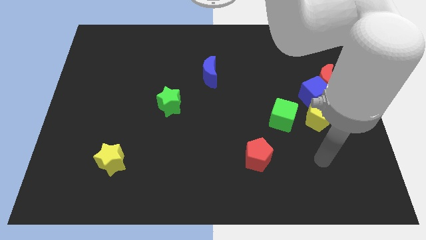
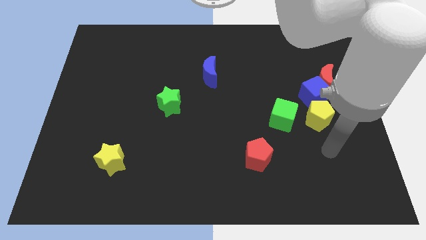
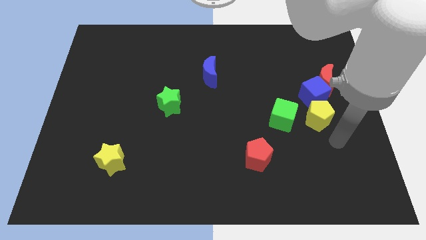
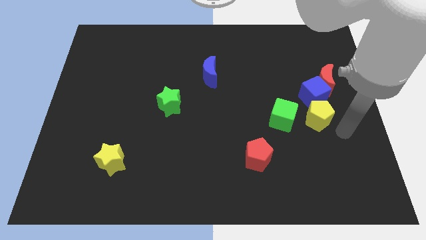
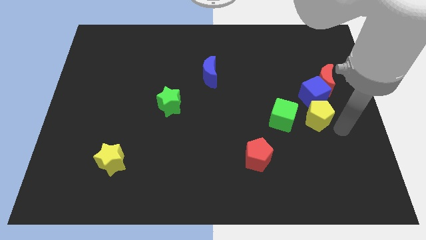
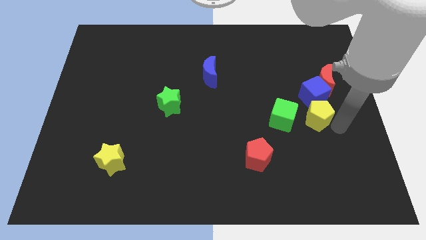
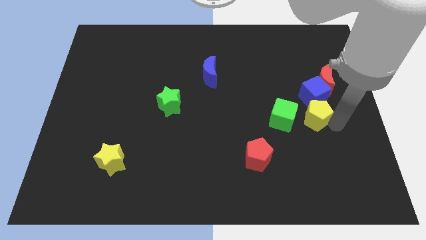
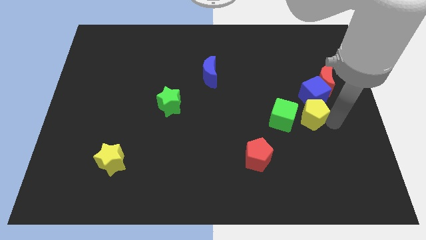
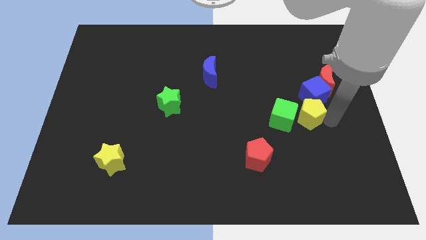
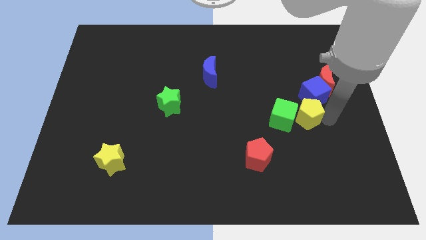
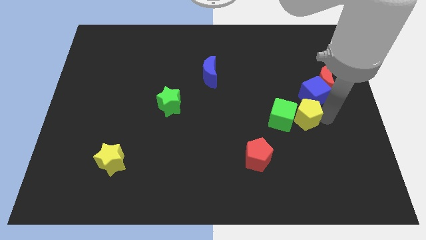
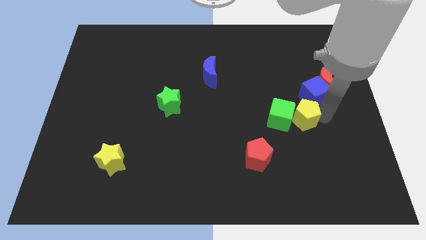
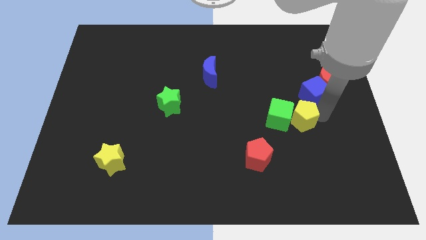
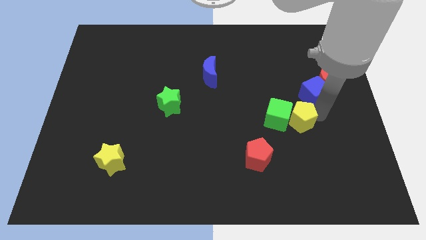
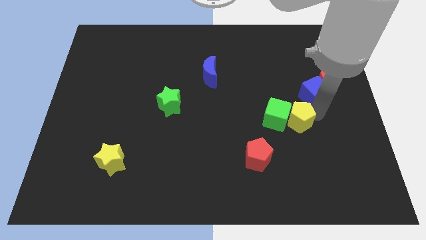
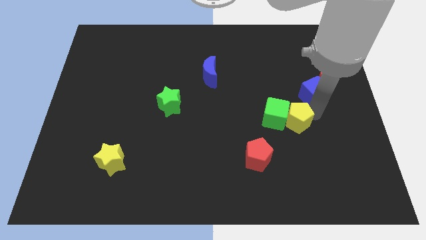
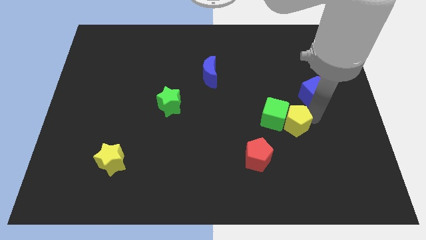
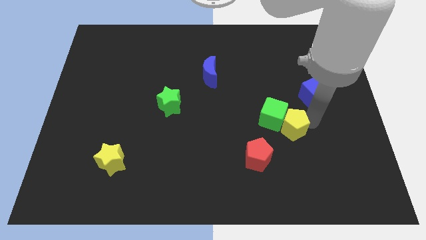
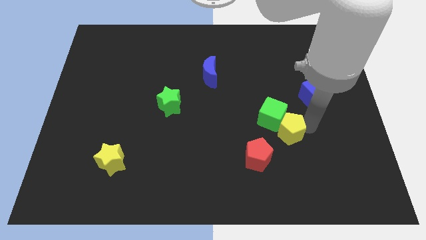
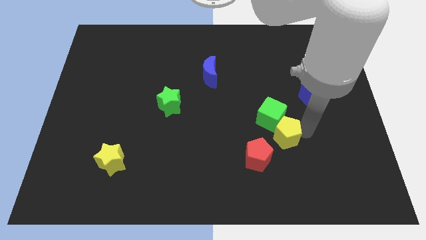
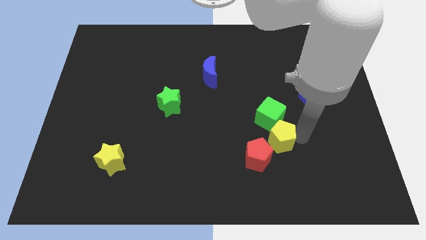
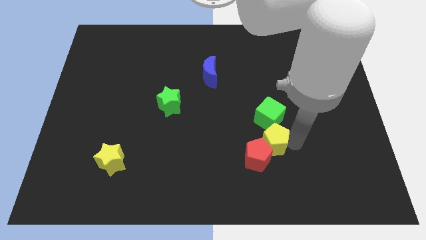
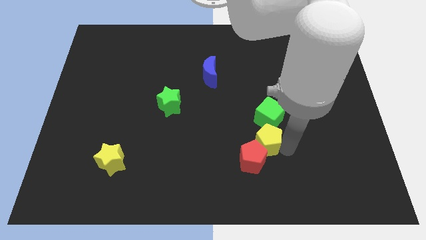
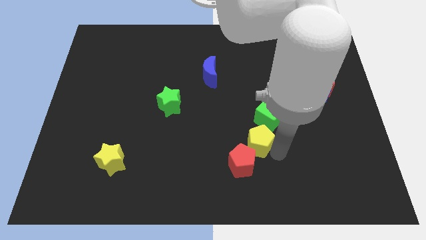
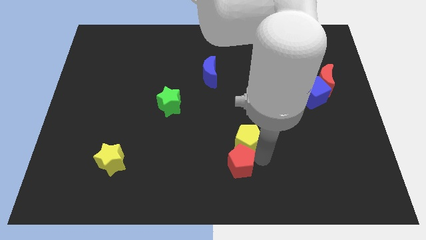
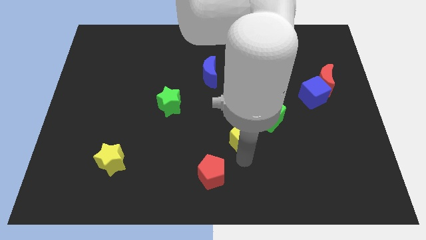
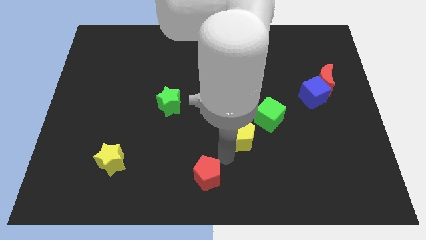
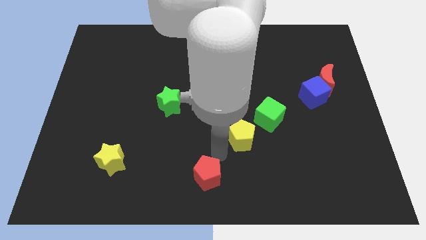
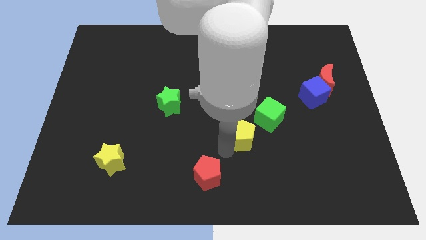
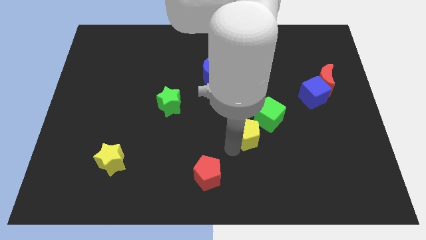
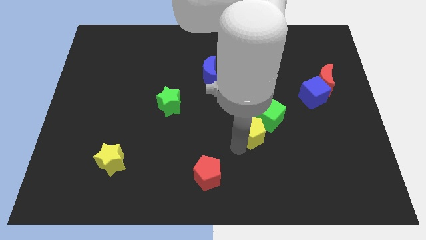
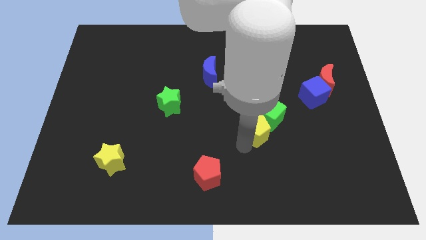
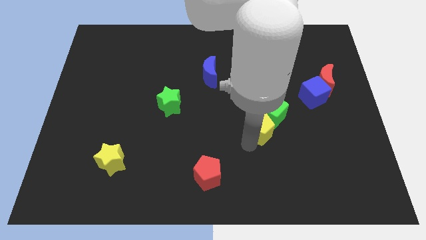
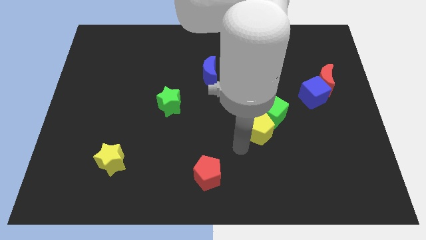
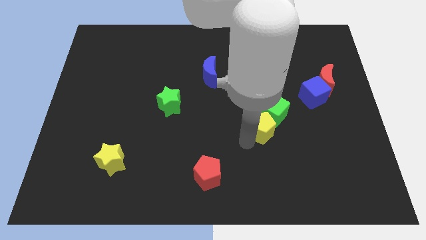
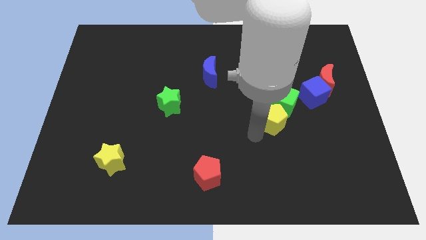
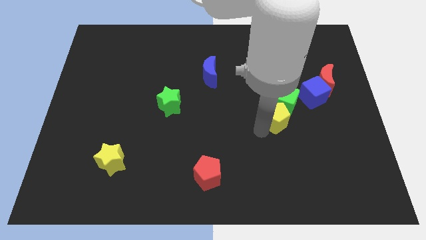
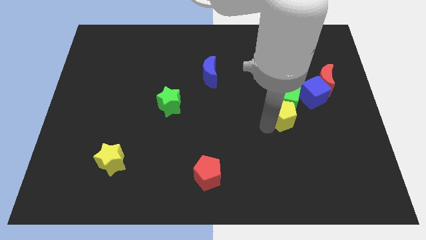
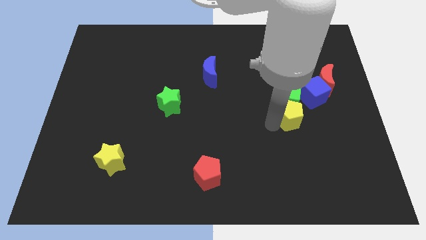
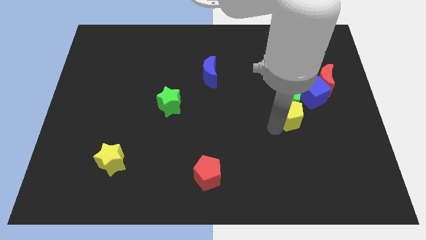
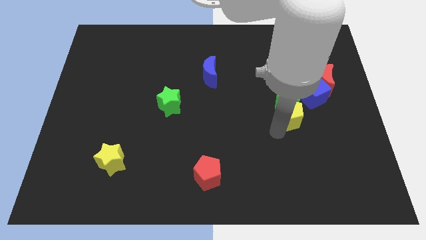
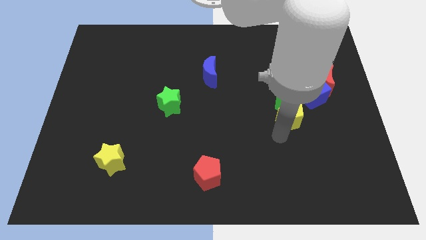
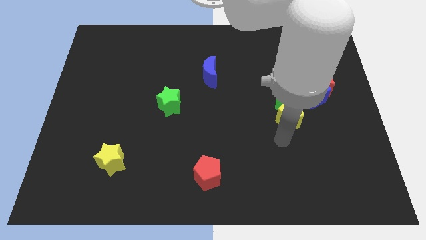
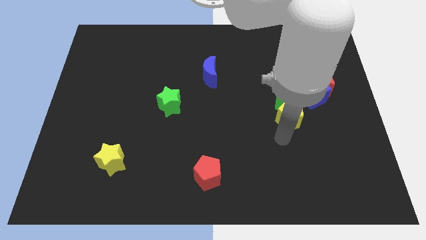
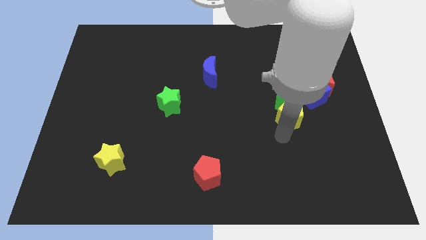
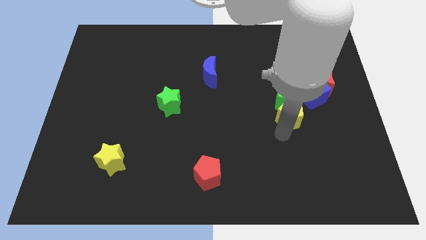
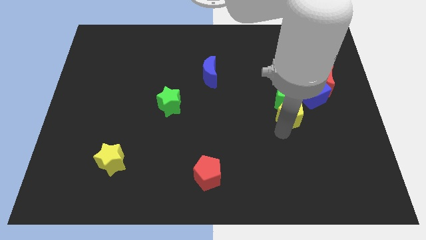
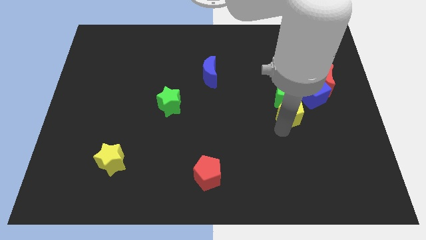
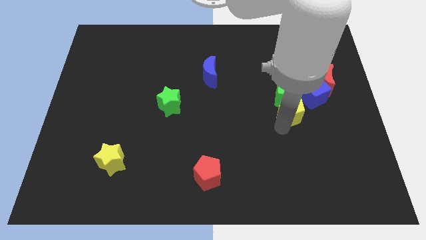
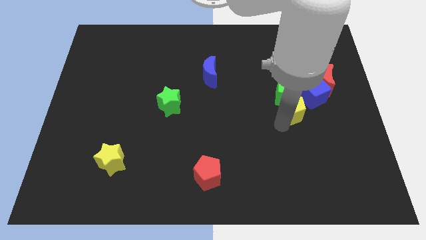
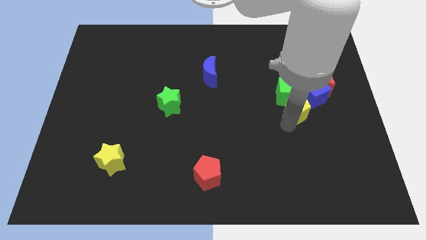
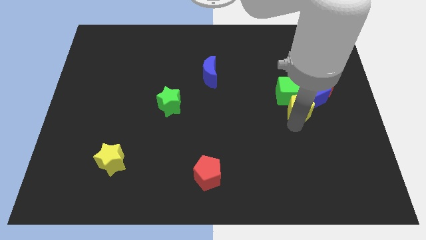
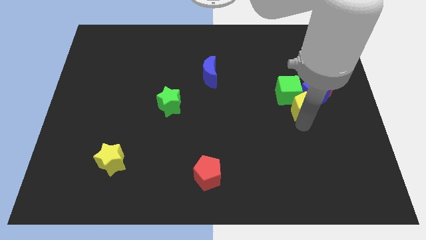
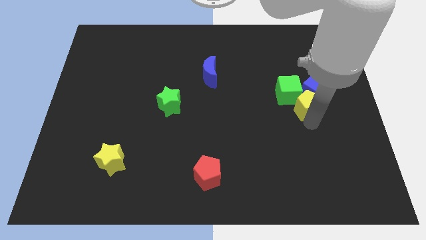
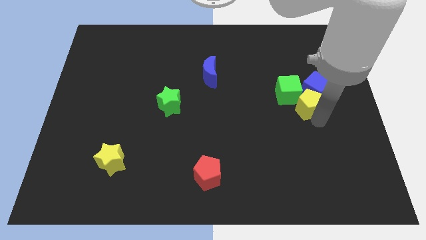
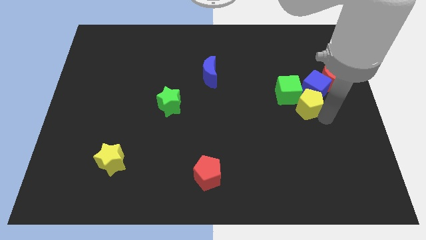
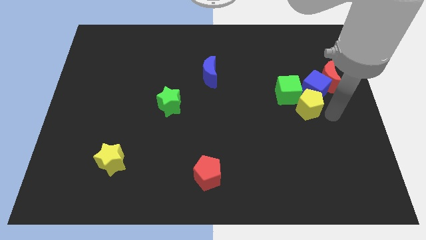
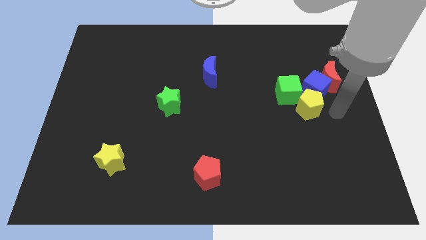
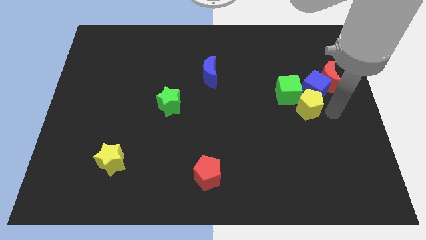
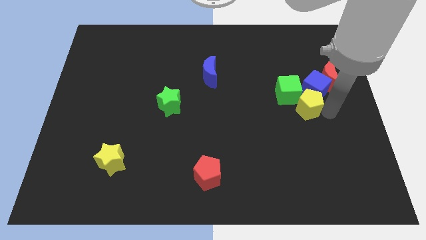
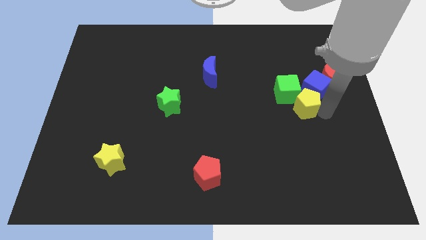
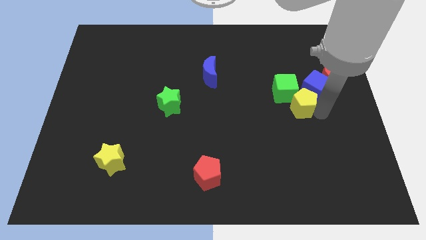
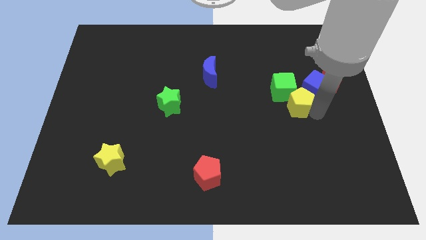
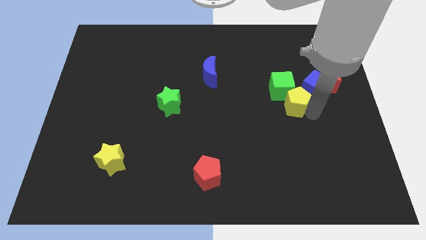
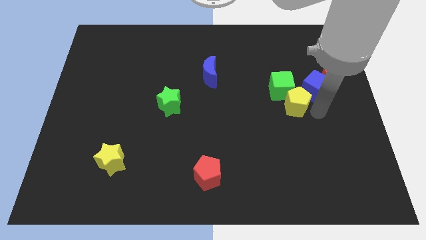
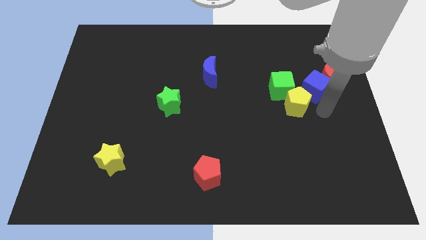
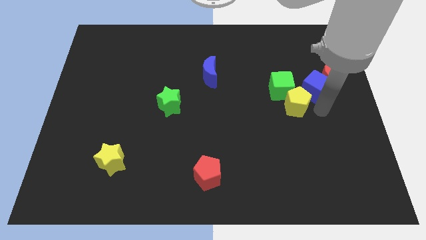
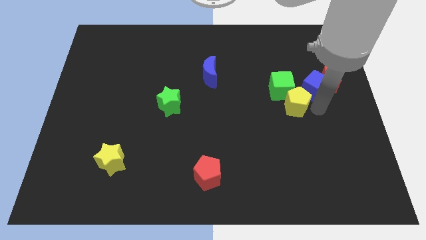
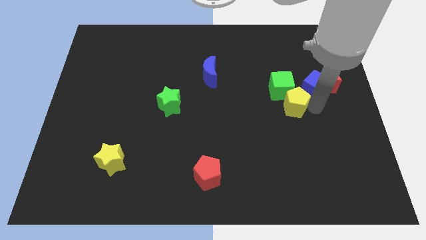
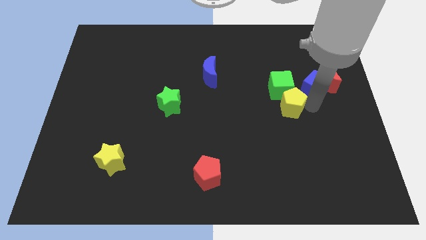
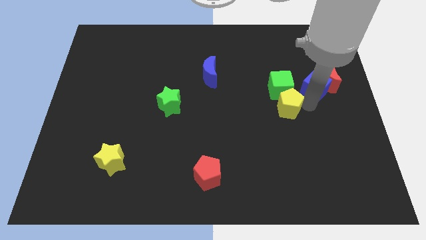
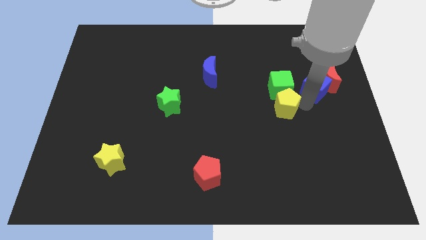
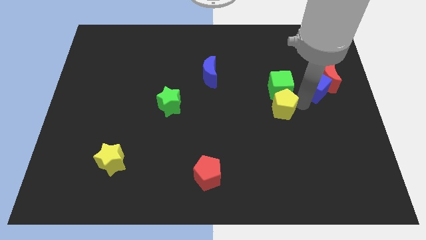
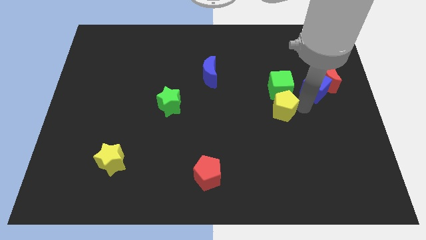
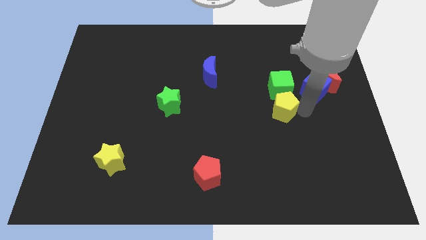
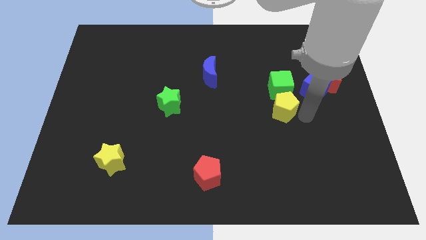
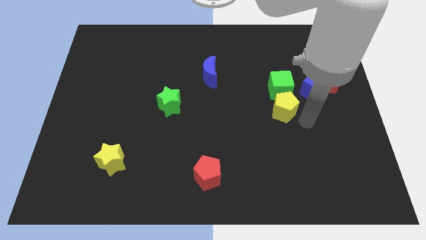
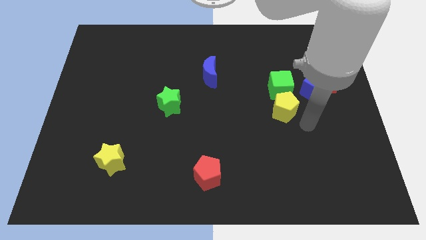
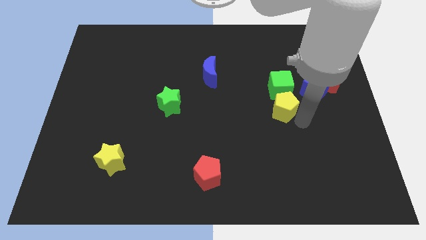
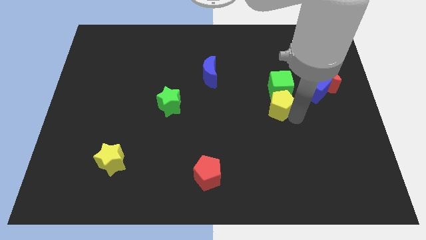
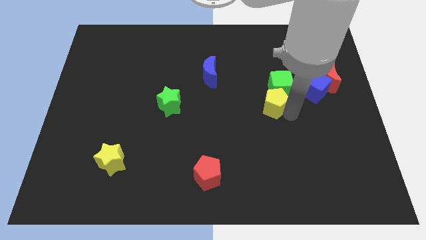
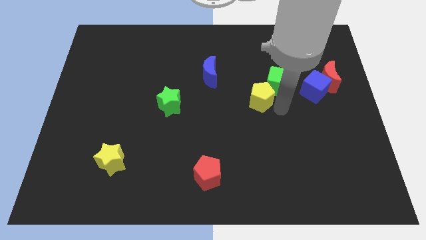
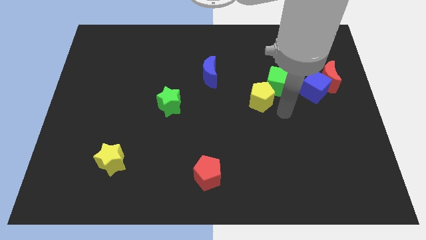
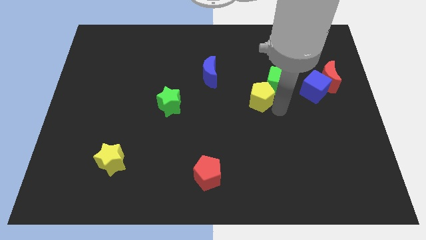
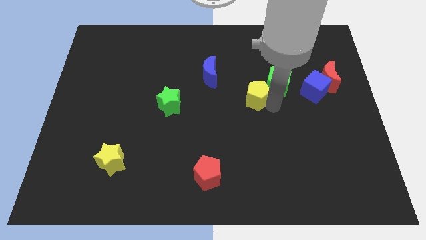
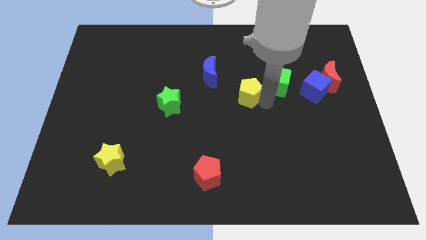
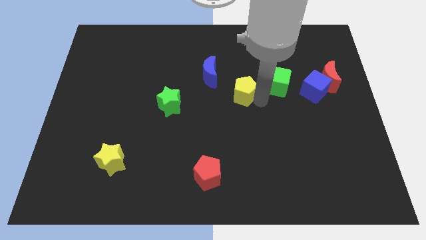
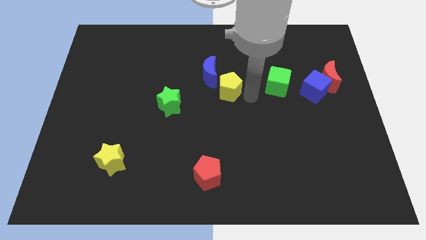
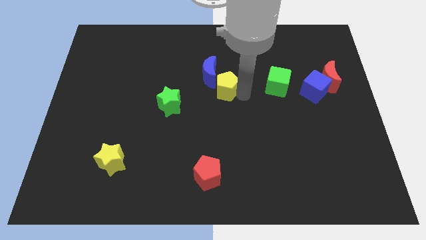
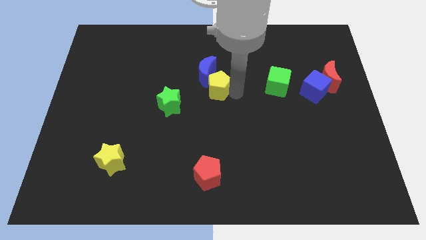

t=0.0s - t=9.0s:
put the yellow pentagon close to the blue moon
